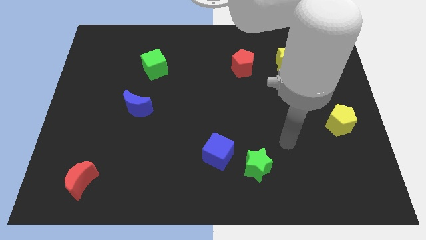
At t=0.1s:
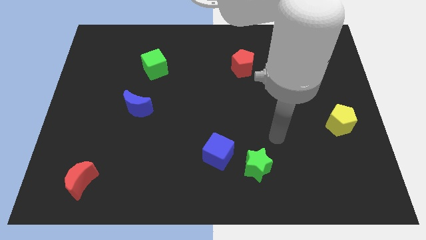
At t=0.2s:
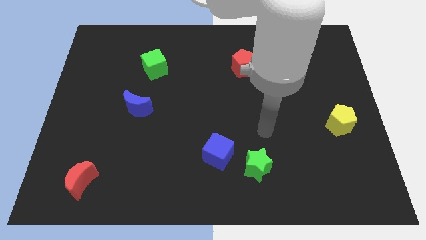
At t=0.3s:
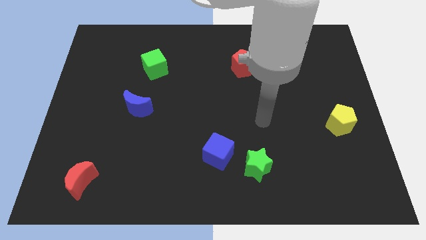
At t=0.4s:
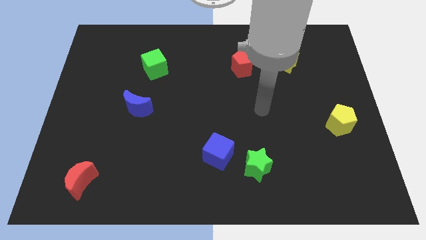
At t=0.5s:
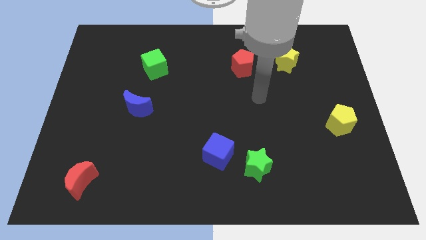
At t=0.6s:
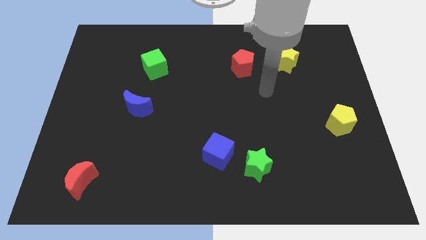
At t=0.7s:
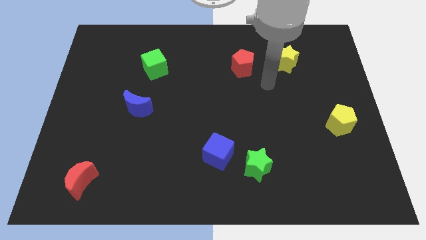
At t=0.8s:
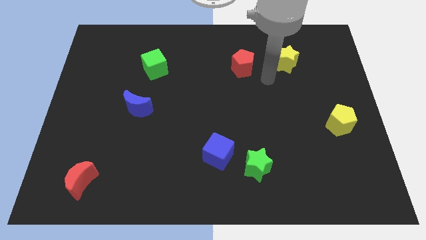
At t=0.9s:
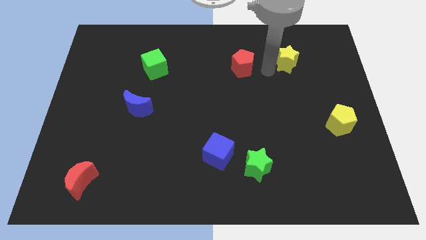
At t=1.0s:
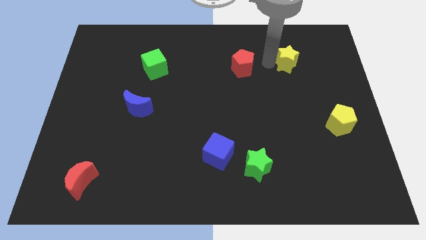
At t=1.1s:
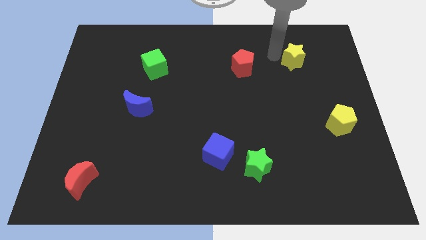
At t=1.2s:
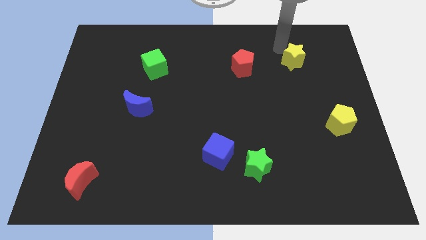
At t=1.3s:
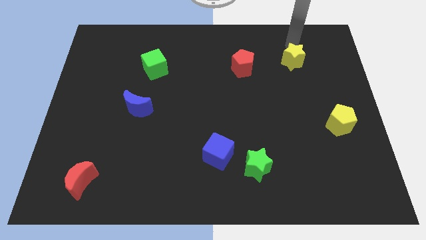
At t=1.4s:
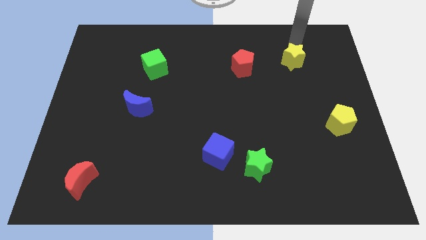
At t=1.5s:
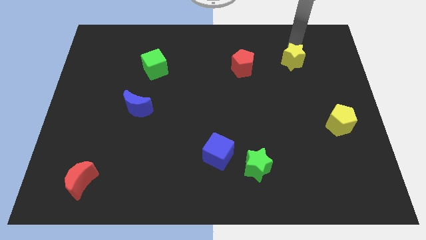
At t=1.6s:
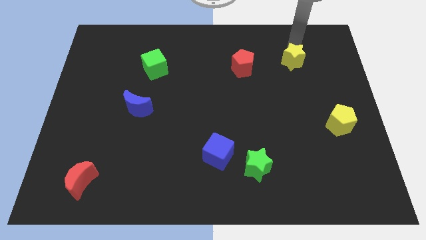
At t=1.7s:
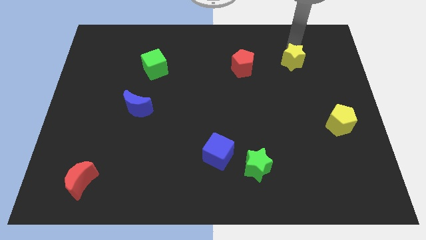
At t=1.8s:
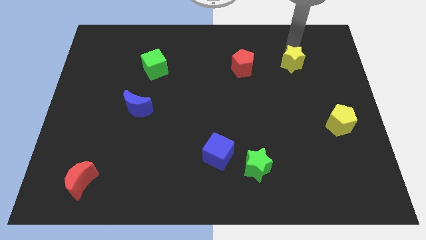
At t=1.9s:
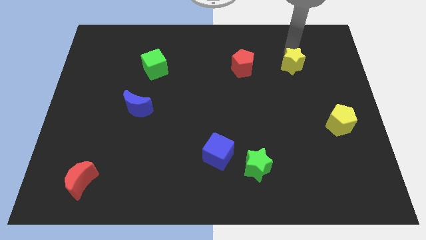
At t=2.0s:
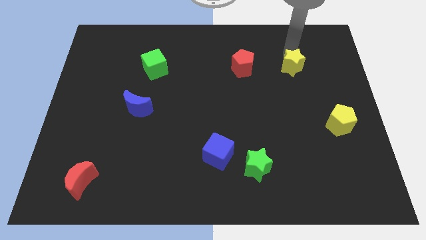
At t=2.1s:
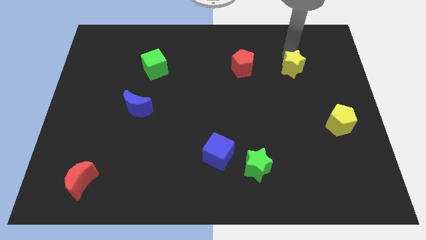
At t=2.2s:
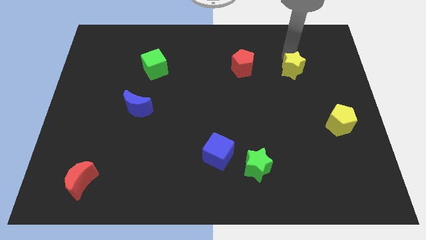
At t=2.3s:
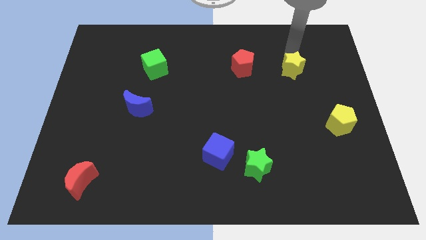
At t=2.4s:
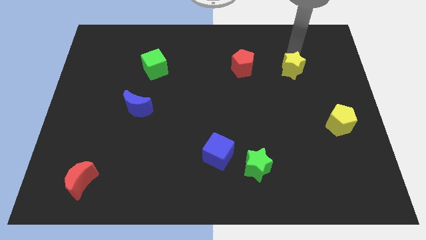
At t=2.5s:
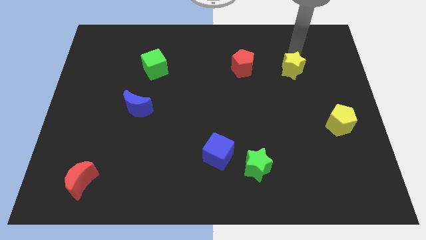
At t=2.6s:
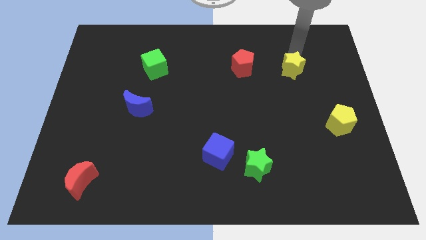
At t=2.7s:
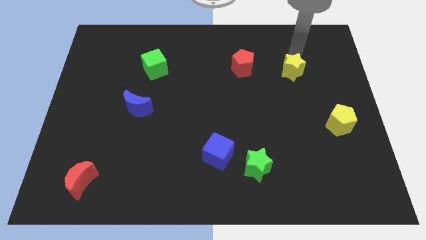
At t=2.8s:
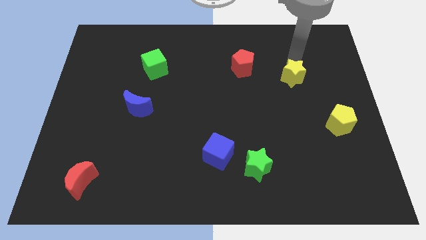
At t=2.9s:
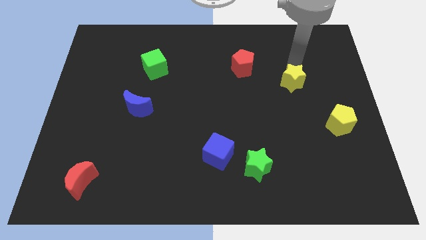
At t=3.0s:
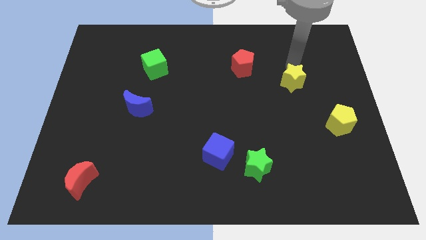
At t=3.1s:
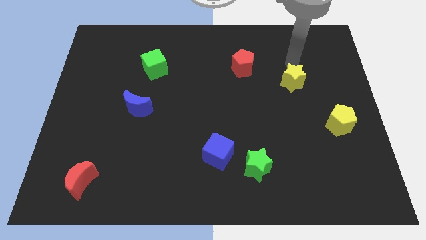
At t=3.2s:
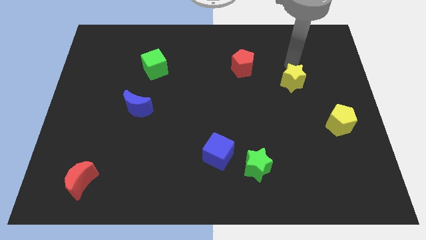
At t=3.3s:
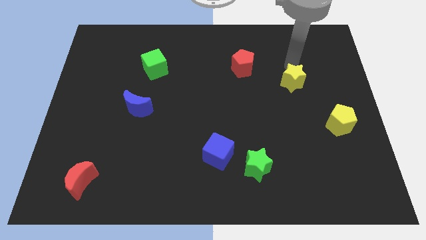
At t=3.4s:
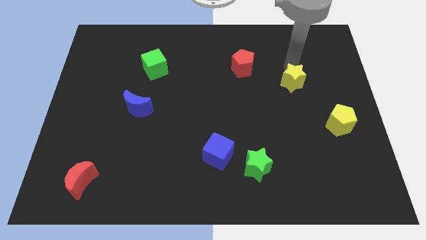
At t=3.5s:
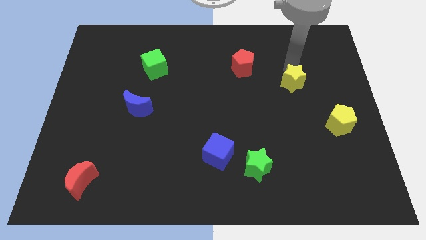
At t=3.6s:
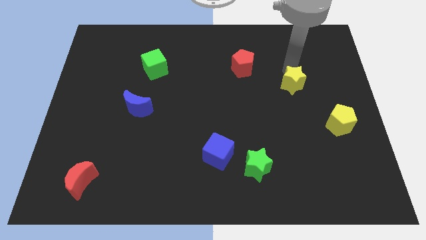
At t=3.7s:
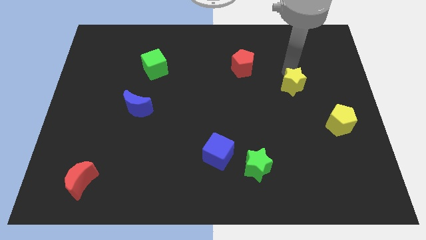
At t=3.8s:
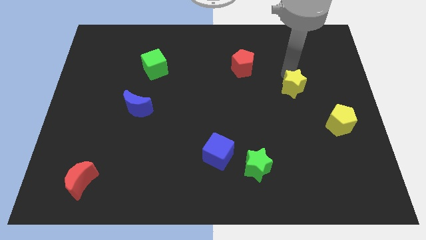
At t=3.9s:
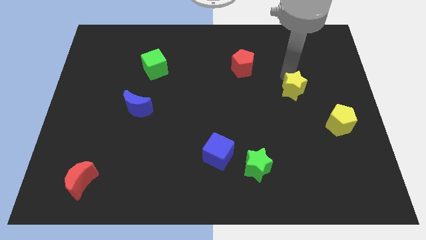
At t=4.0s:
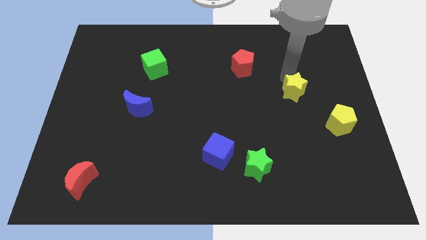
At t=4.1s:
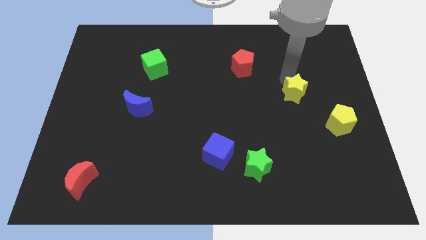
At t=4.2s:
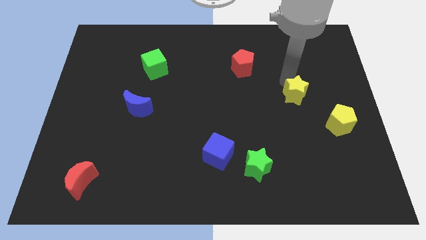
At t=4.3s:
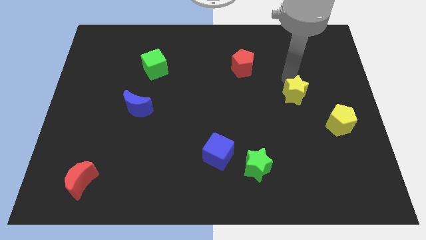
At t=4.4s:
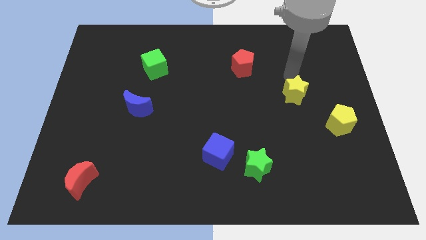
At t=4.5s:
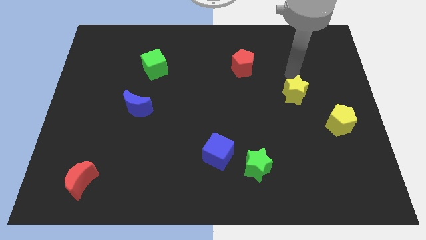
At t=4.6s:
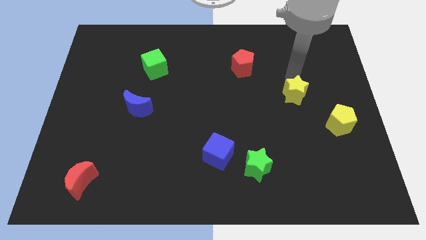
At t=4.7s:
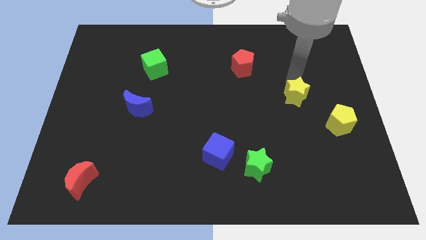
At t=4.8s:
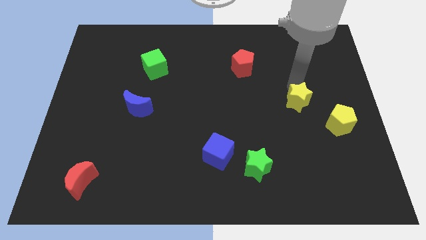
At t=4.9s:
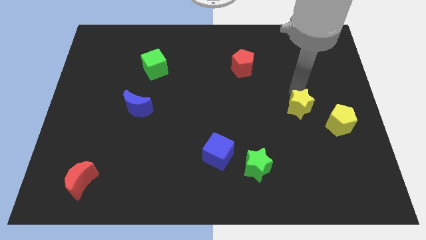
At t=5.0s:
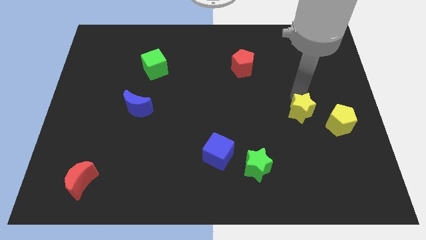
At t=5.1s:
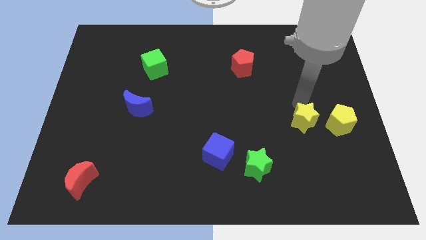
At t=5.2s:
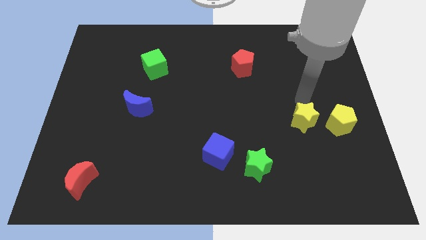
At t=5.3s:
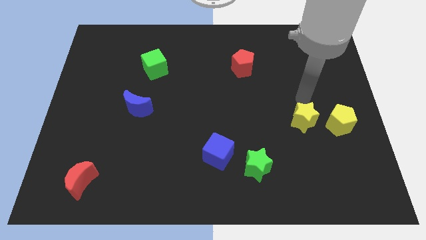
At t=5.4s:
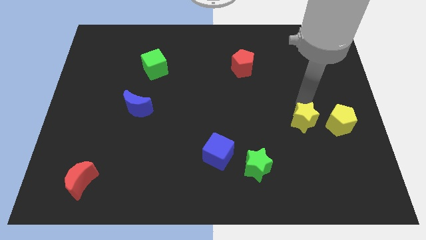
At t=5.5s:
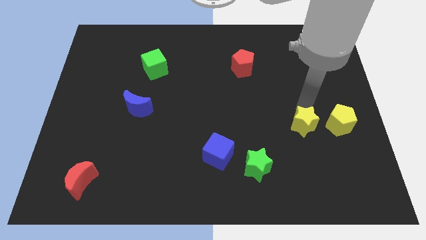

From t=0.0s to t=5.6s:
push the yellow star downwards

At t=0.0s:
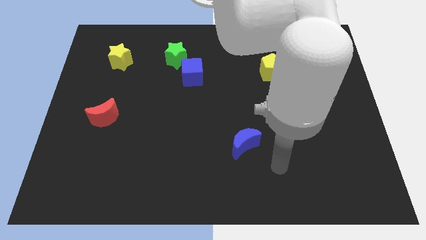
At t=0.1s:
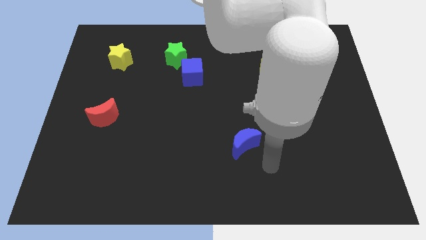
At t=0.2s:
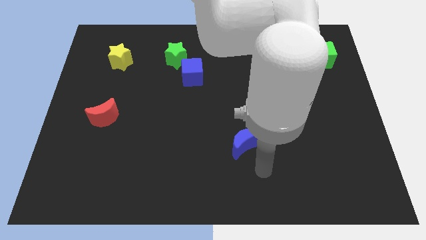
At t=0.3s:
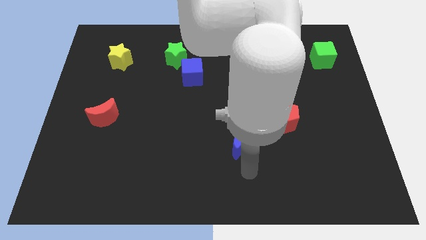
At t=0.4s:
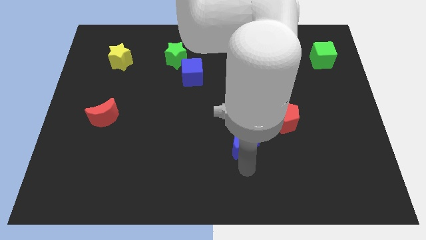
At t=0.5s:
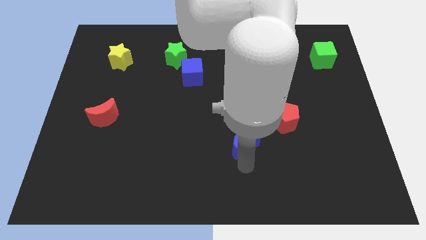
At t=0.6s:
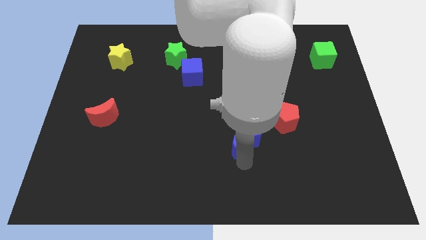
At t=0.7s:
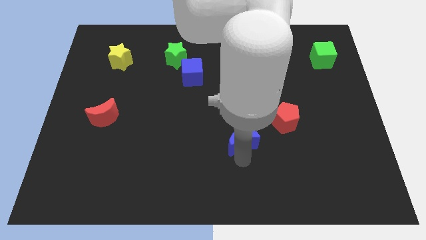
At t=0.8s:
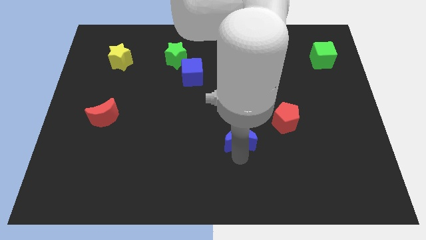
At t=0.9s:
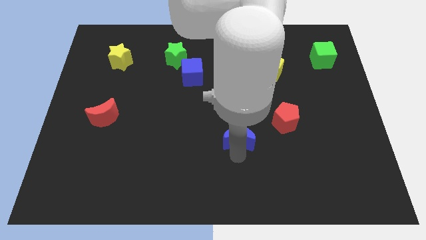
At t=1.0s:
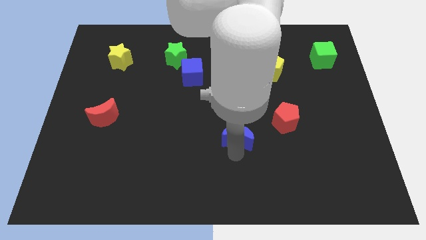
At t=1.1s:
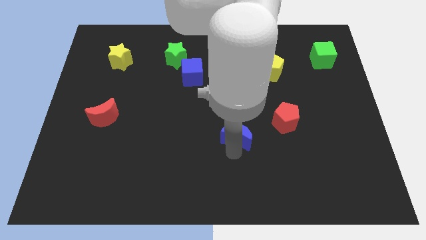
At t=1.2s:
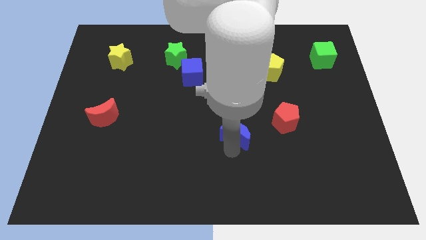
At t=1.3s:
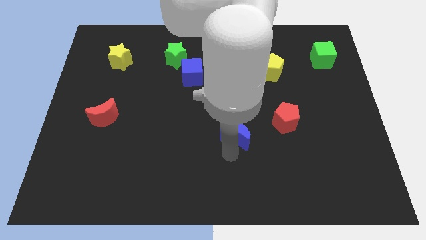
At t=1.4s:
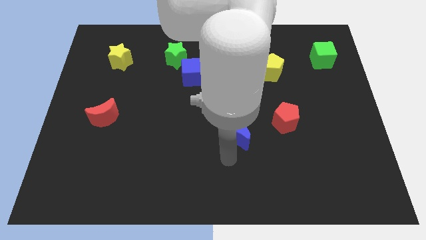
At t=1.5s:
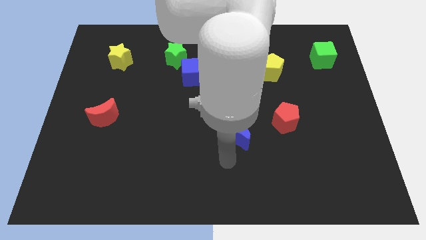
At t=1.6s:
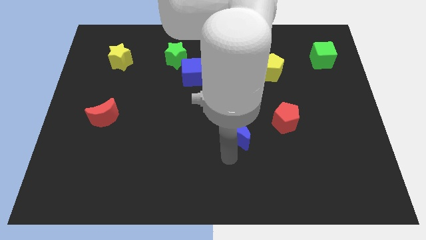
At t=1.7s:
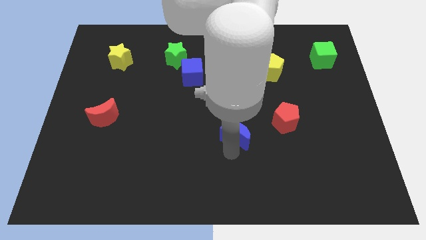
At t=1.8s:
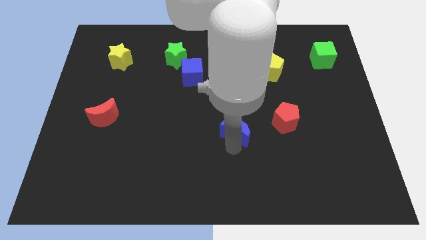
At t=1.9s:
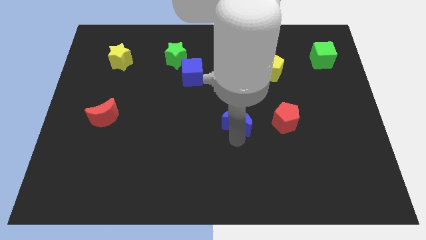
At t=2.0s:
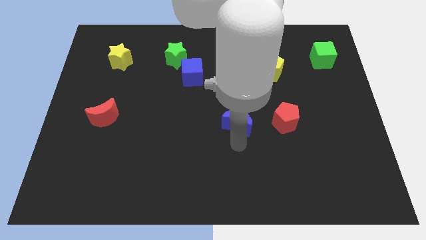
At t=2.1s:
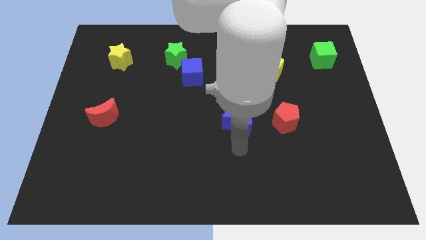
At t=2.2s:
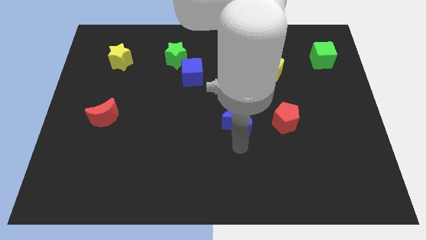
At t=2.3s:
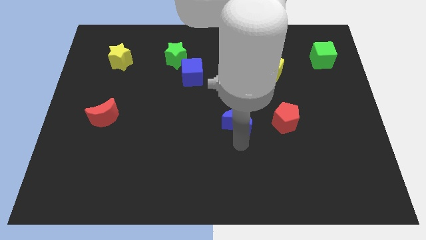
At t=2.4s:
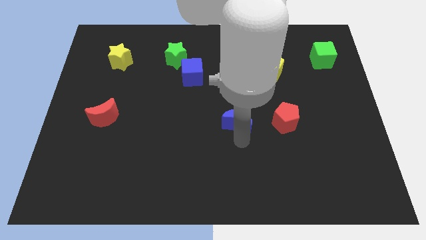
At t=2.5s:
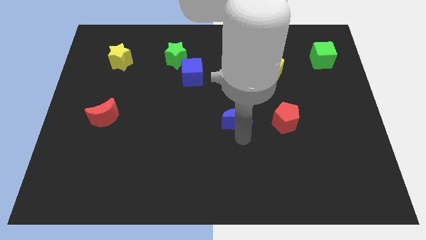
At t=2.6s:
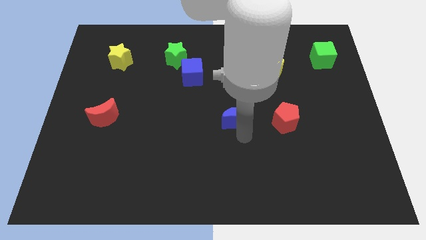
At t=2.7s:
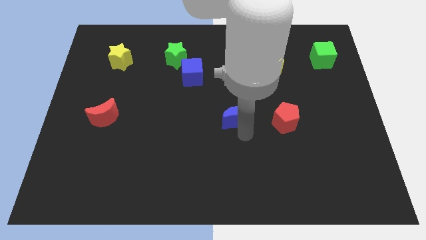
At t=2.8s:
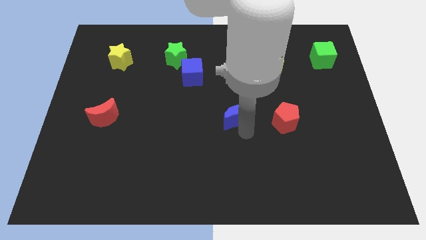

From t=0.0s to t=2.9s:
slide the blue moon a bit up
